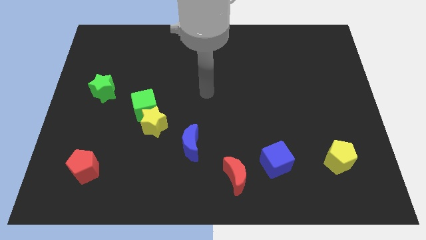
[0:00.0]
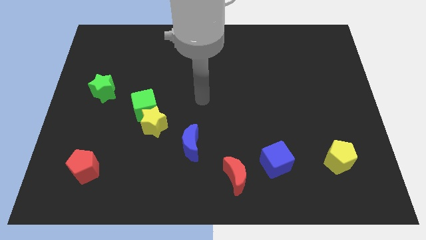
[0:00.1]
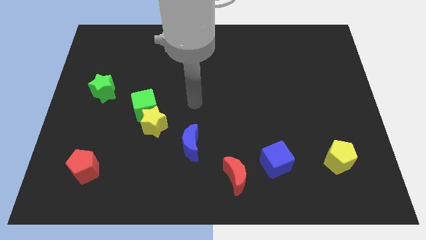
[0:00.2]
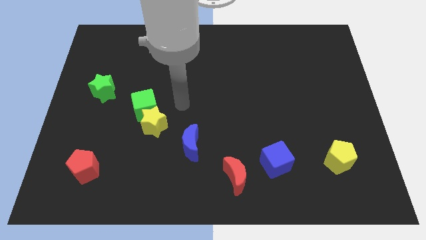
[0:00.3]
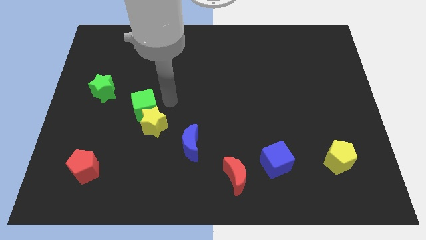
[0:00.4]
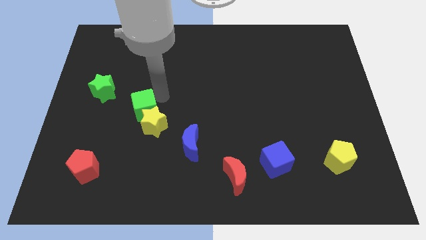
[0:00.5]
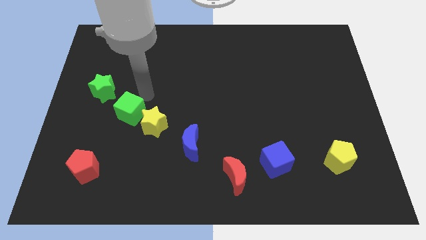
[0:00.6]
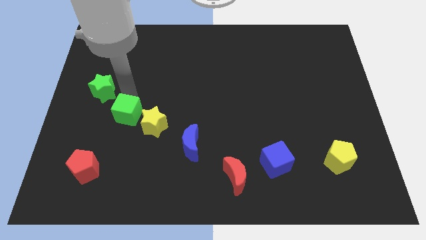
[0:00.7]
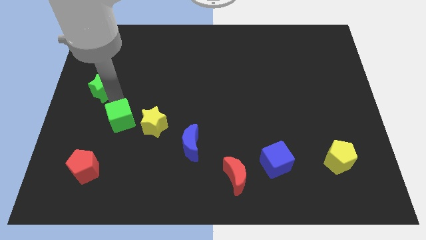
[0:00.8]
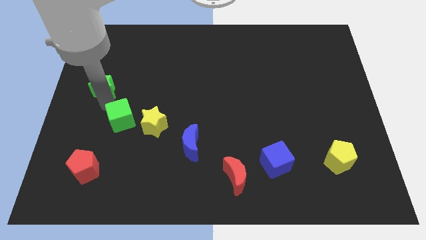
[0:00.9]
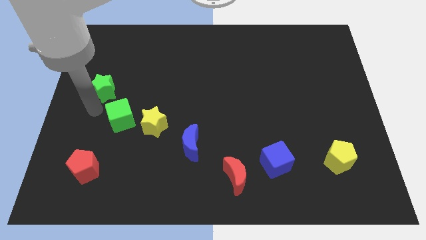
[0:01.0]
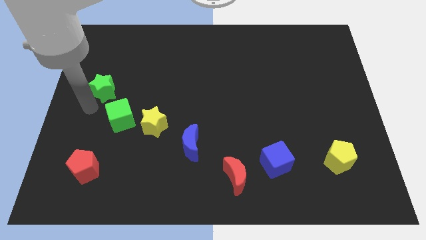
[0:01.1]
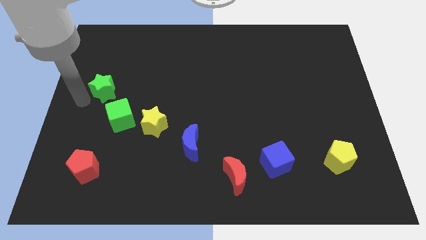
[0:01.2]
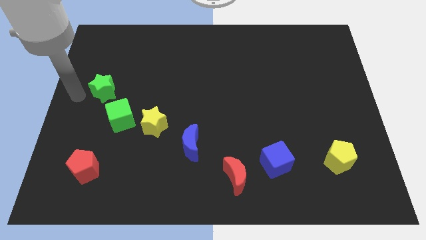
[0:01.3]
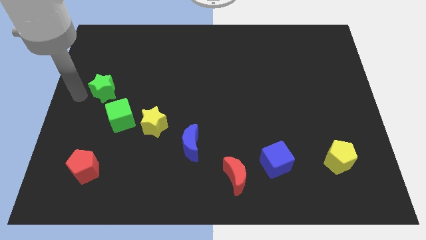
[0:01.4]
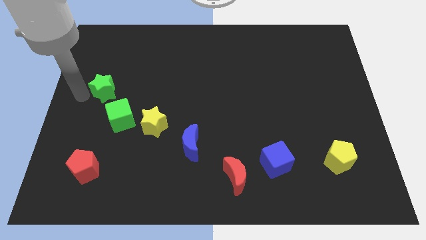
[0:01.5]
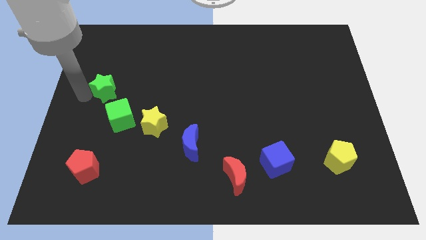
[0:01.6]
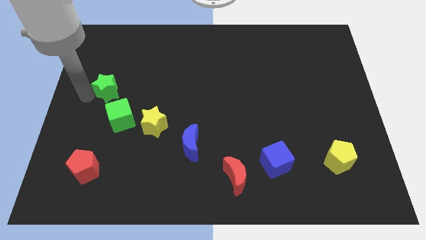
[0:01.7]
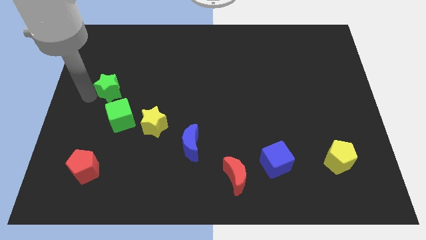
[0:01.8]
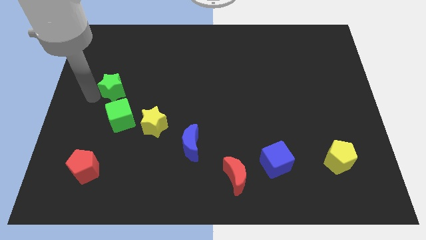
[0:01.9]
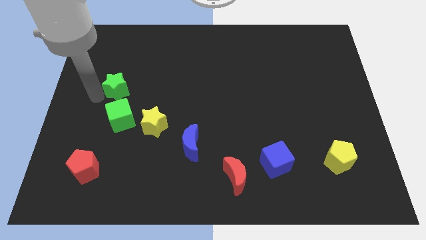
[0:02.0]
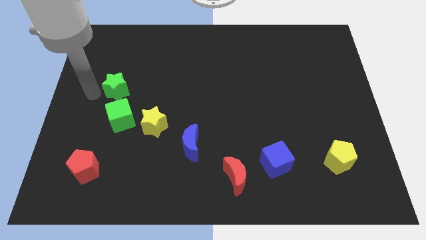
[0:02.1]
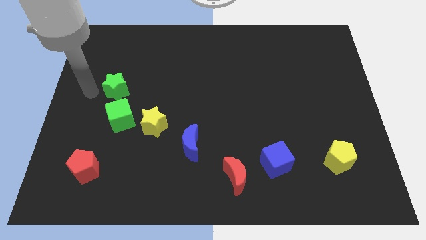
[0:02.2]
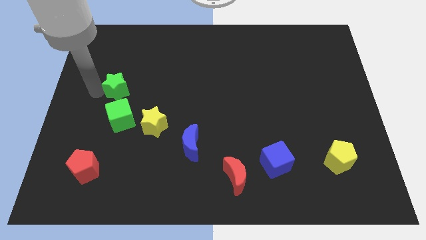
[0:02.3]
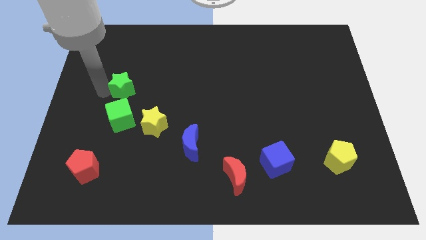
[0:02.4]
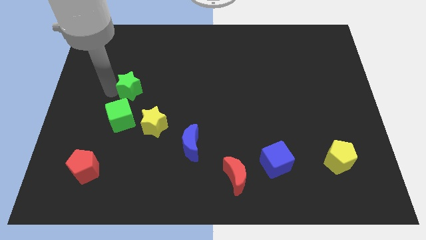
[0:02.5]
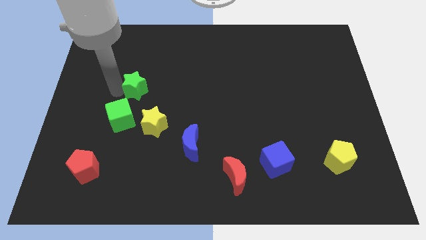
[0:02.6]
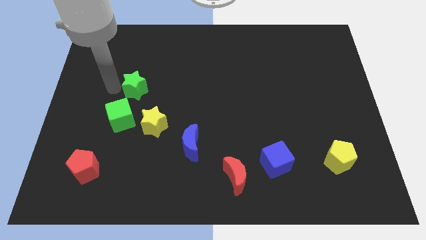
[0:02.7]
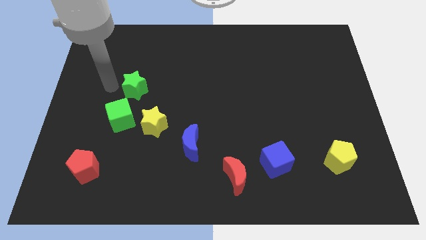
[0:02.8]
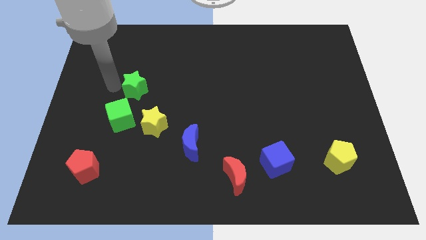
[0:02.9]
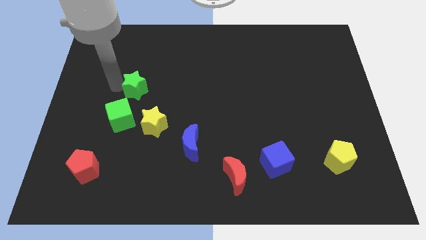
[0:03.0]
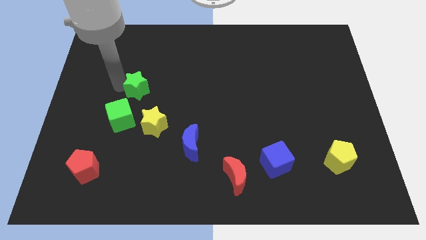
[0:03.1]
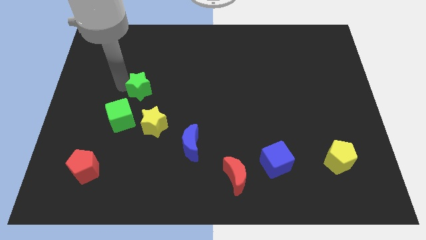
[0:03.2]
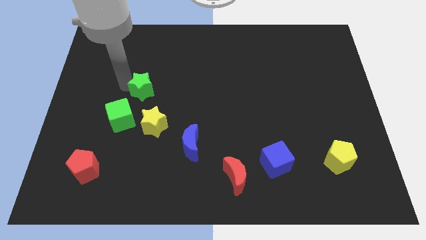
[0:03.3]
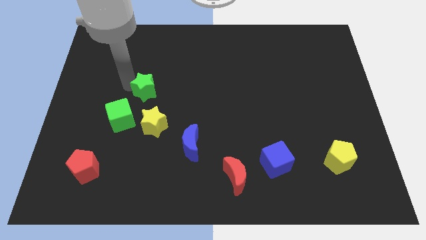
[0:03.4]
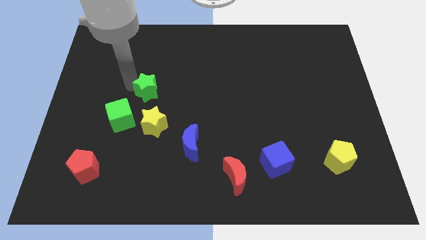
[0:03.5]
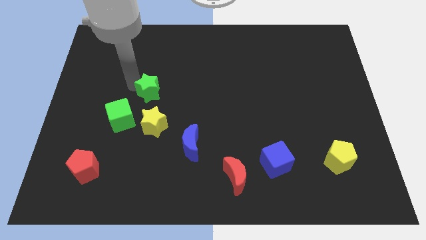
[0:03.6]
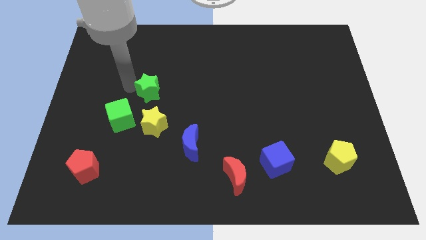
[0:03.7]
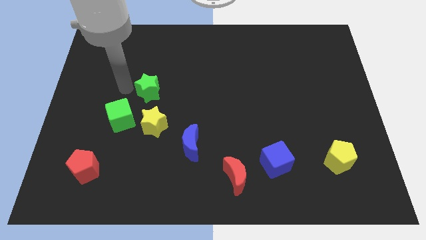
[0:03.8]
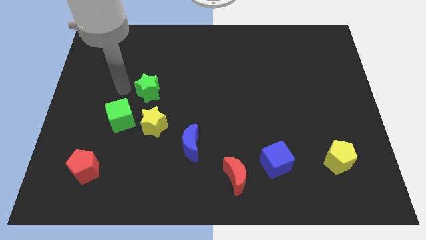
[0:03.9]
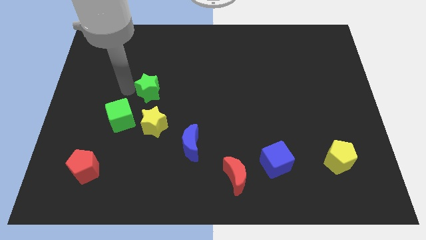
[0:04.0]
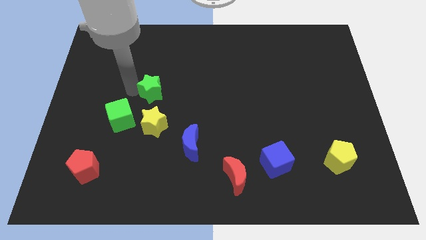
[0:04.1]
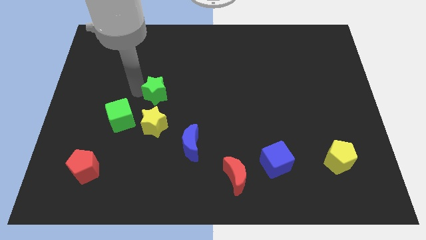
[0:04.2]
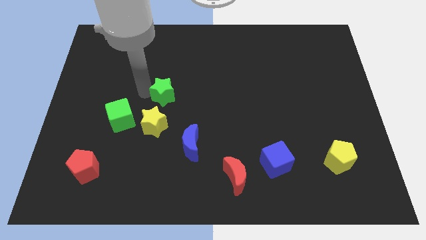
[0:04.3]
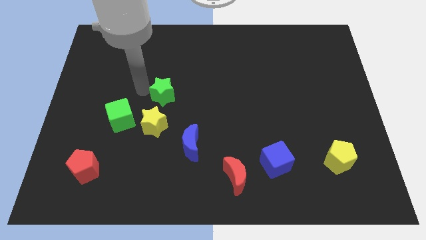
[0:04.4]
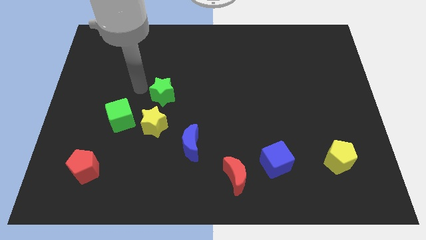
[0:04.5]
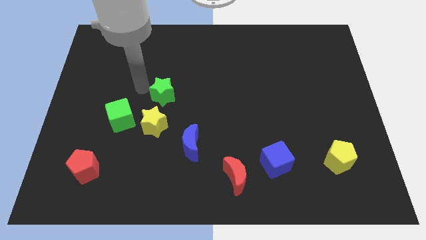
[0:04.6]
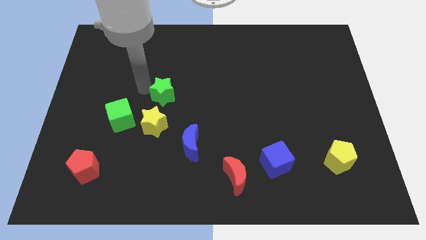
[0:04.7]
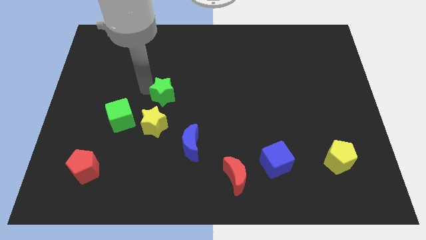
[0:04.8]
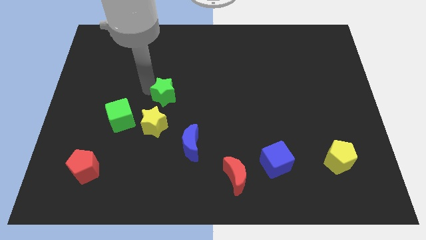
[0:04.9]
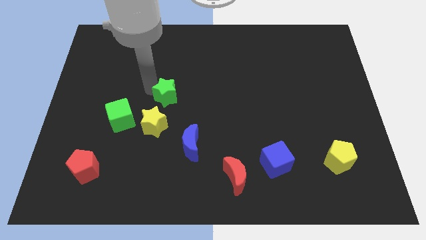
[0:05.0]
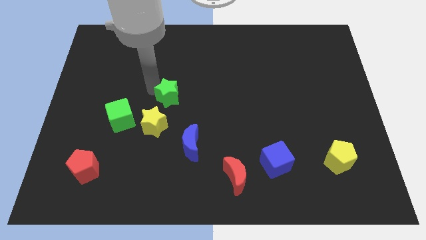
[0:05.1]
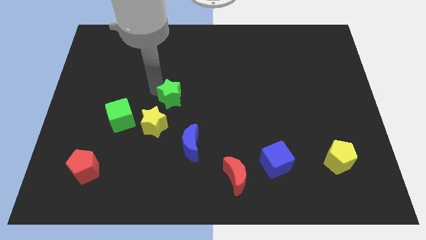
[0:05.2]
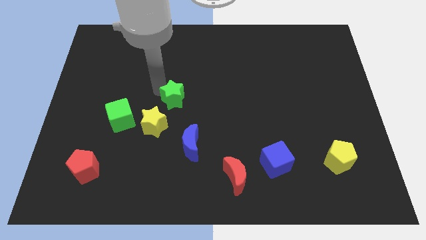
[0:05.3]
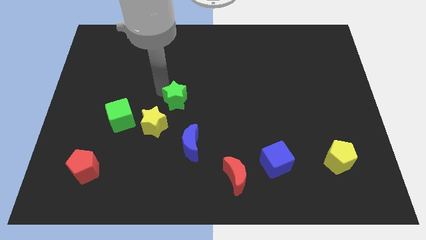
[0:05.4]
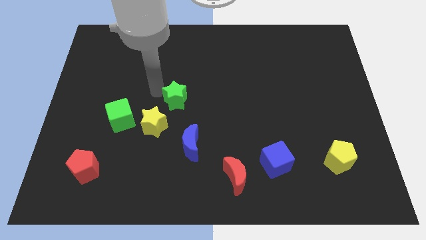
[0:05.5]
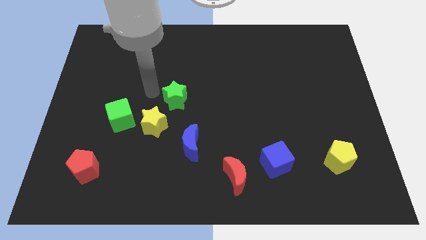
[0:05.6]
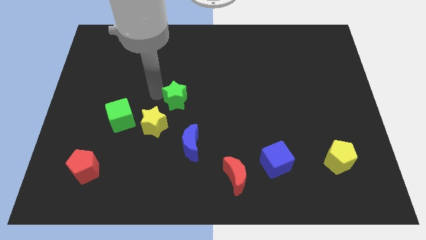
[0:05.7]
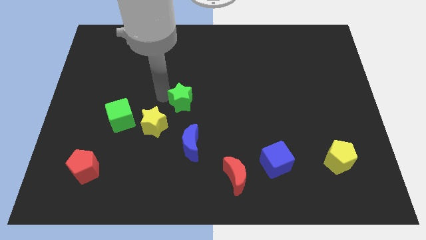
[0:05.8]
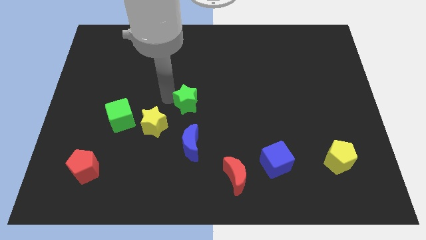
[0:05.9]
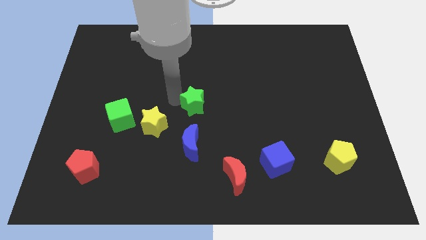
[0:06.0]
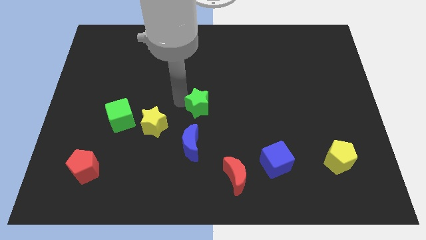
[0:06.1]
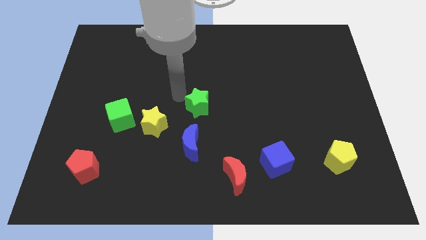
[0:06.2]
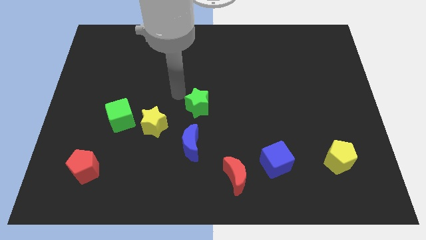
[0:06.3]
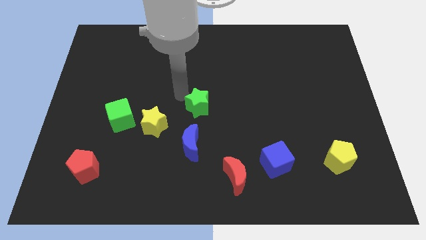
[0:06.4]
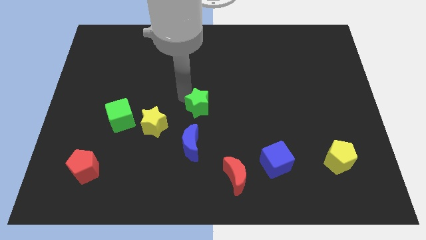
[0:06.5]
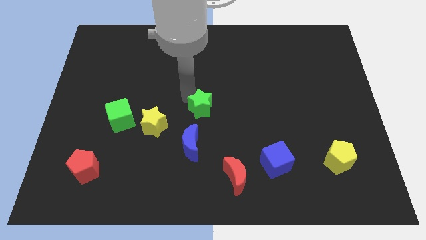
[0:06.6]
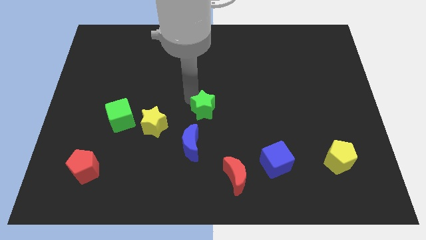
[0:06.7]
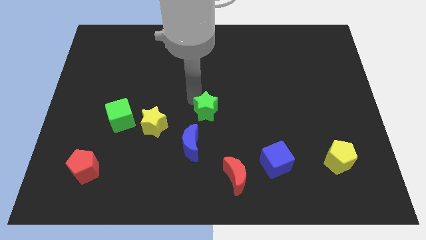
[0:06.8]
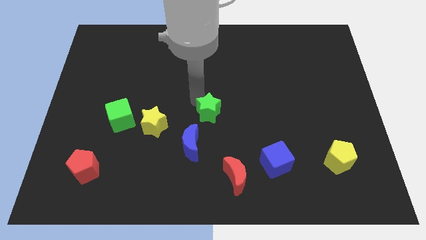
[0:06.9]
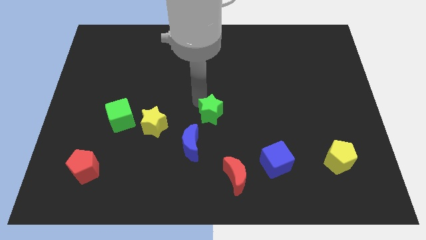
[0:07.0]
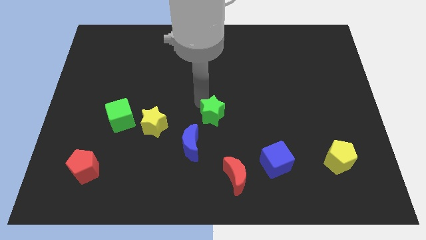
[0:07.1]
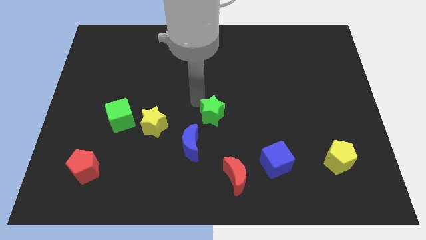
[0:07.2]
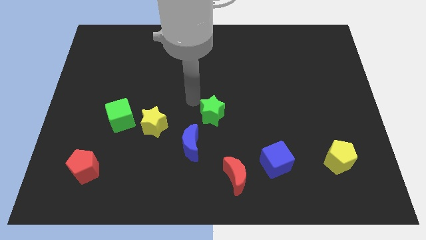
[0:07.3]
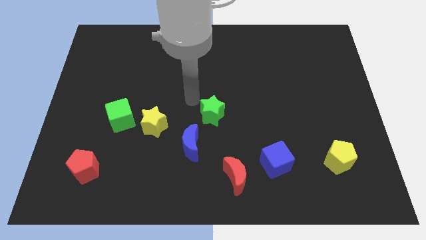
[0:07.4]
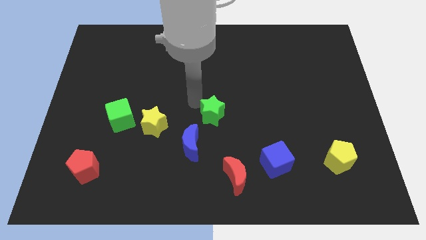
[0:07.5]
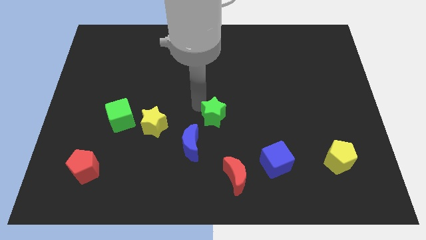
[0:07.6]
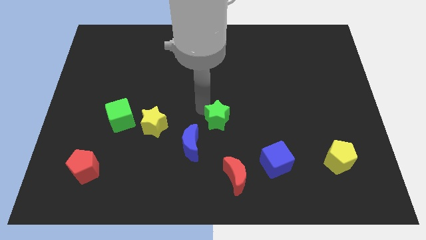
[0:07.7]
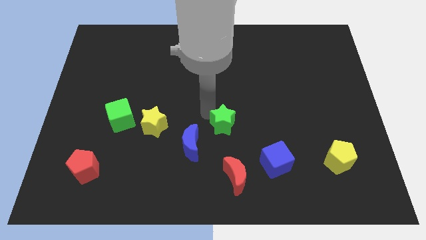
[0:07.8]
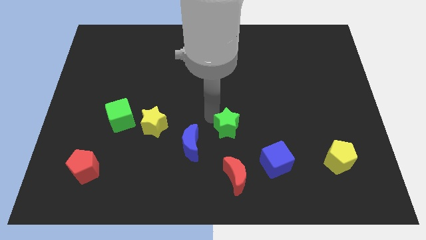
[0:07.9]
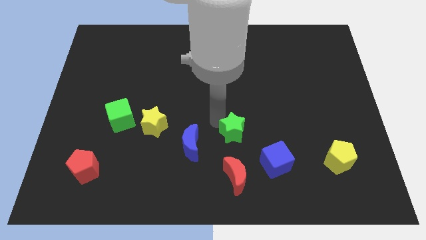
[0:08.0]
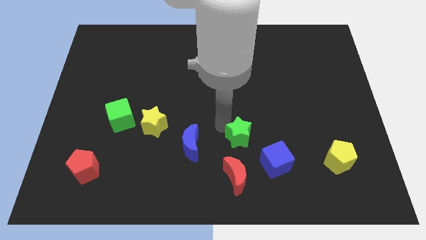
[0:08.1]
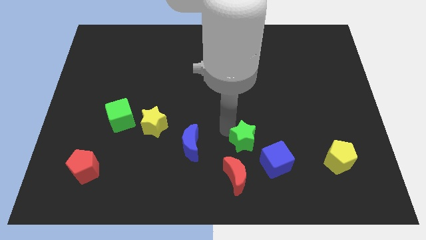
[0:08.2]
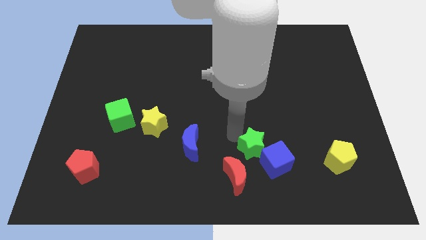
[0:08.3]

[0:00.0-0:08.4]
put the green star towards the blue cube
